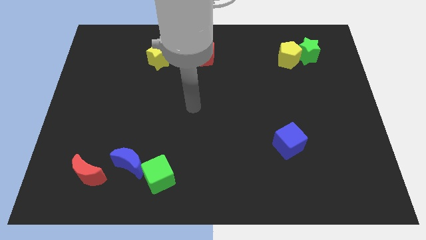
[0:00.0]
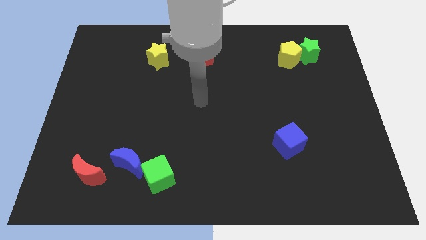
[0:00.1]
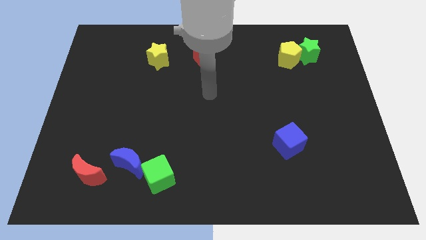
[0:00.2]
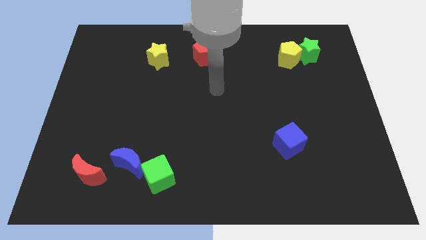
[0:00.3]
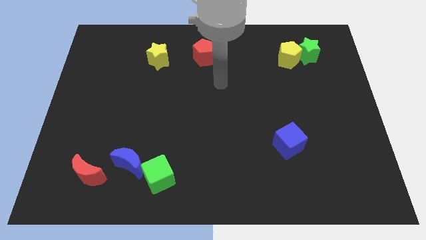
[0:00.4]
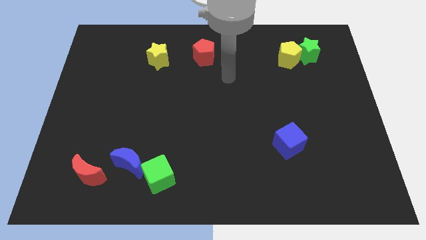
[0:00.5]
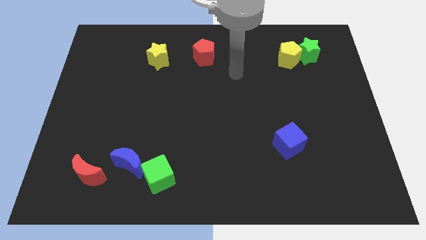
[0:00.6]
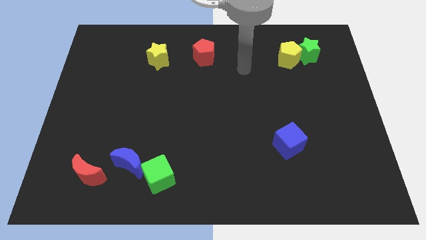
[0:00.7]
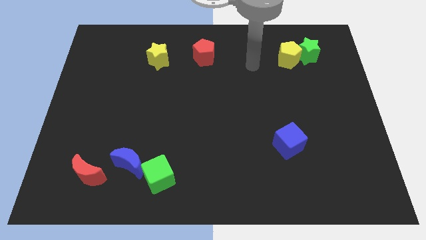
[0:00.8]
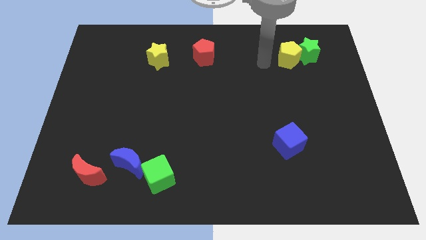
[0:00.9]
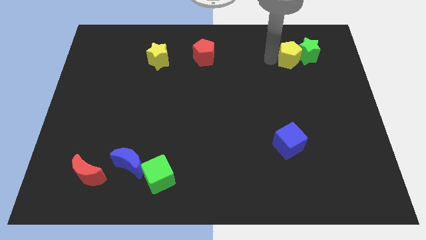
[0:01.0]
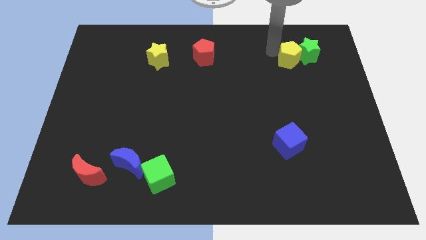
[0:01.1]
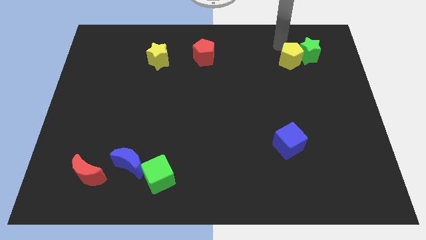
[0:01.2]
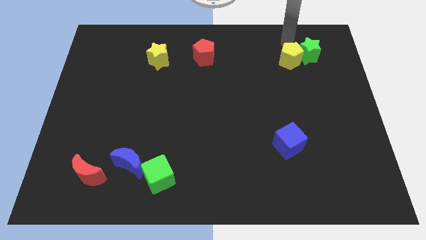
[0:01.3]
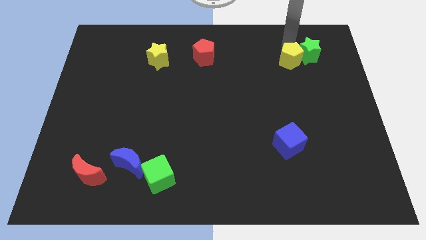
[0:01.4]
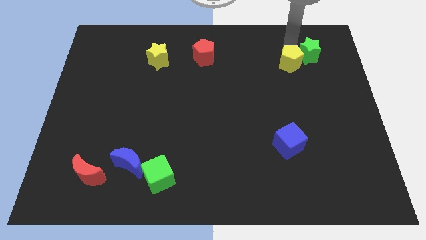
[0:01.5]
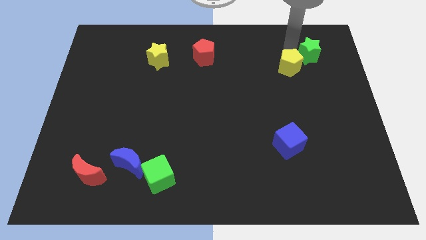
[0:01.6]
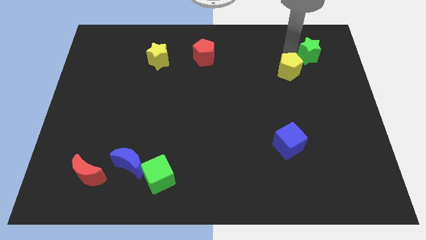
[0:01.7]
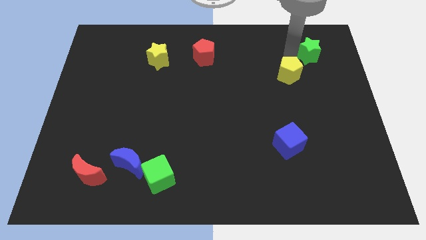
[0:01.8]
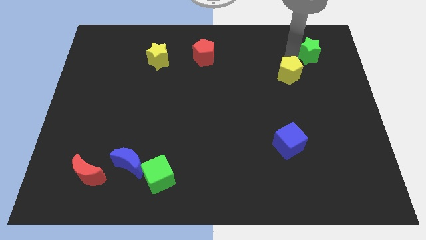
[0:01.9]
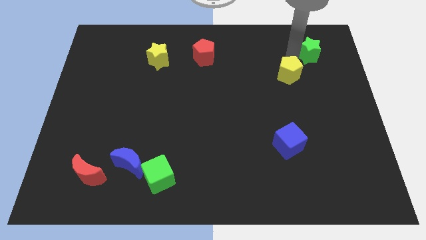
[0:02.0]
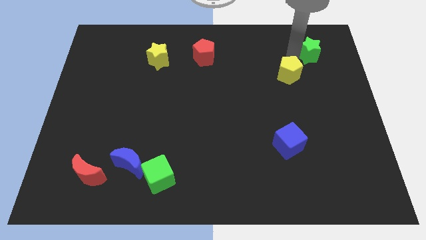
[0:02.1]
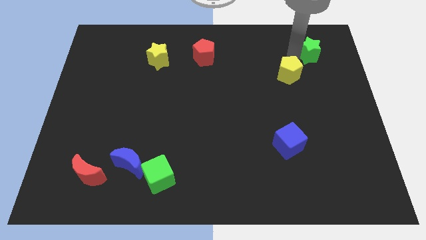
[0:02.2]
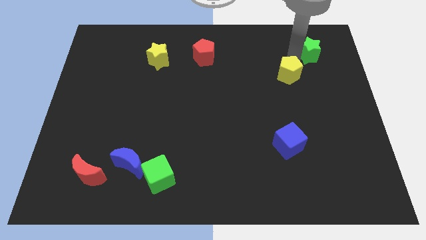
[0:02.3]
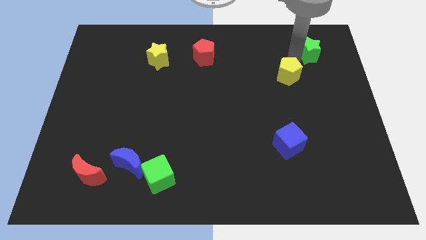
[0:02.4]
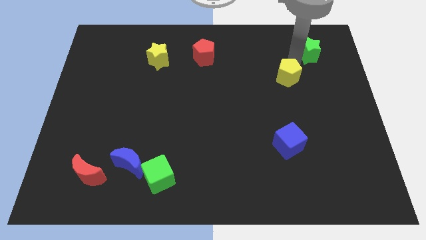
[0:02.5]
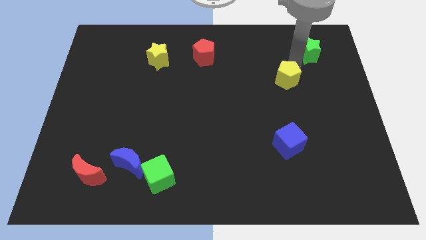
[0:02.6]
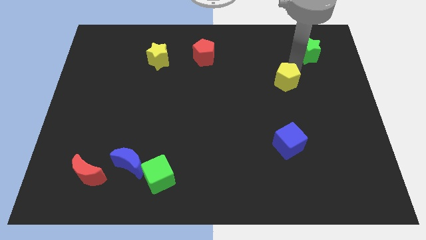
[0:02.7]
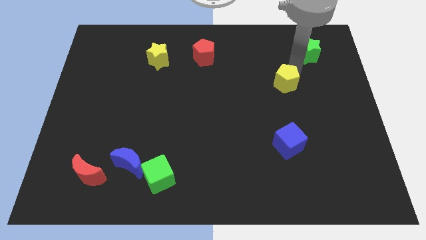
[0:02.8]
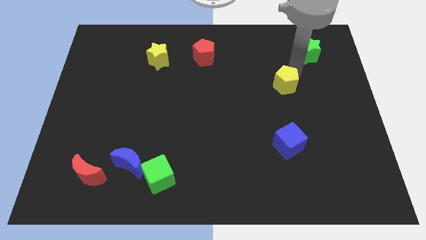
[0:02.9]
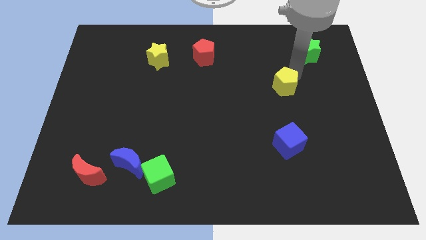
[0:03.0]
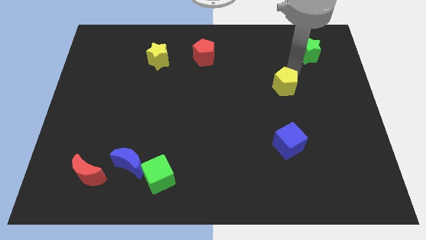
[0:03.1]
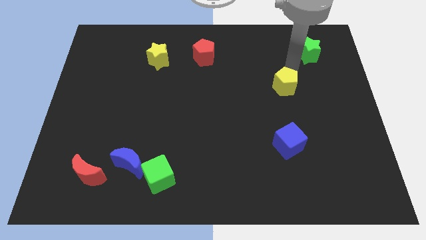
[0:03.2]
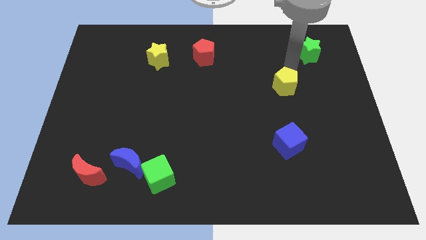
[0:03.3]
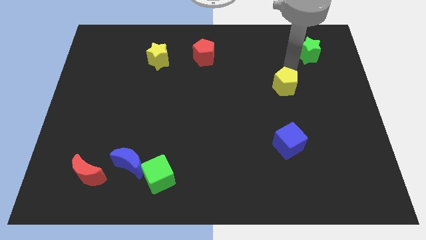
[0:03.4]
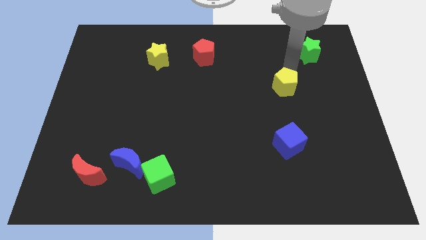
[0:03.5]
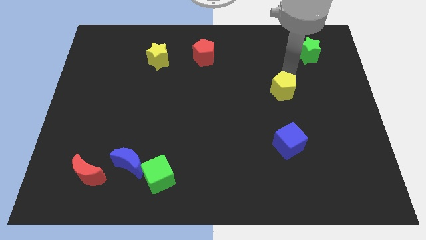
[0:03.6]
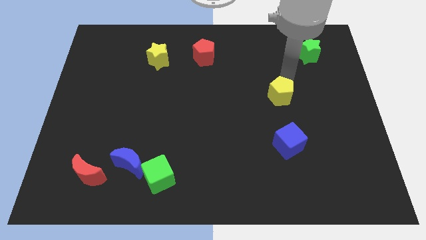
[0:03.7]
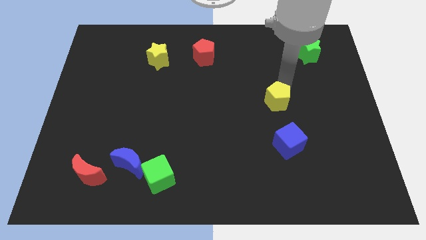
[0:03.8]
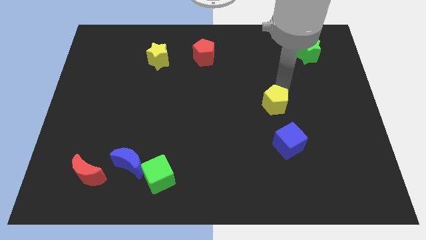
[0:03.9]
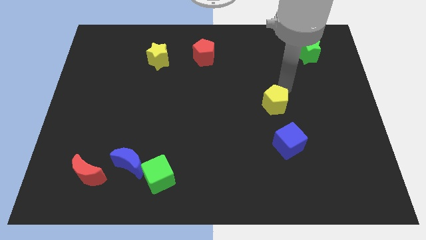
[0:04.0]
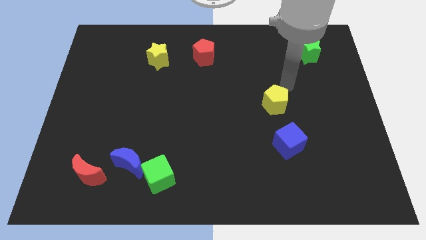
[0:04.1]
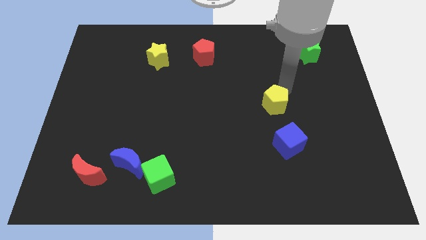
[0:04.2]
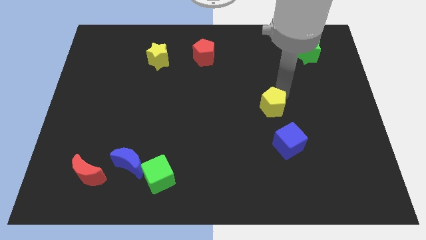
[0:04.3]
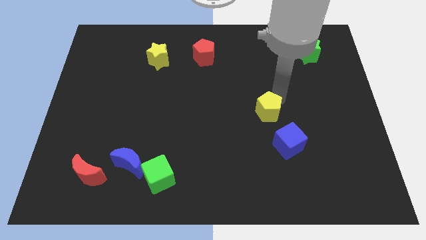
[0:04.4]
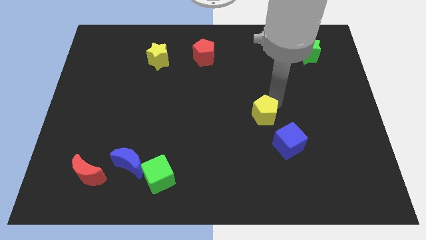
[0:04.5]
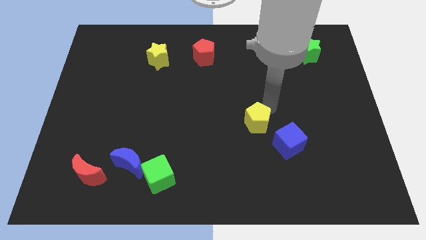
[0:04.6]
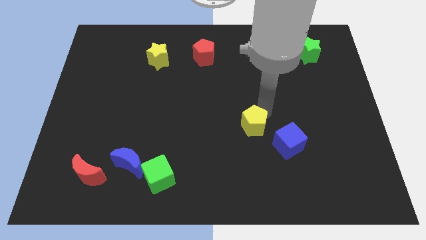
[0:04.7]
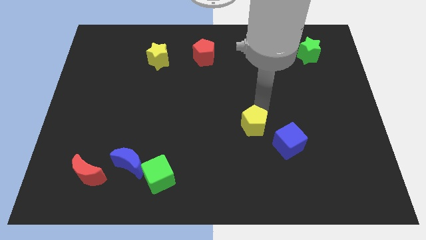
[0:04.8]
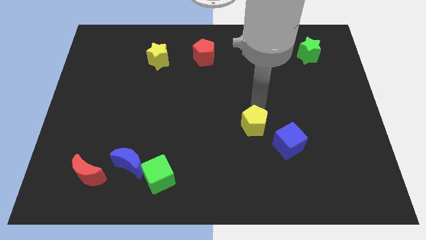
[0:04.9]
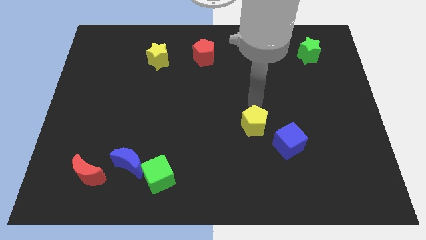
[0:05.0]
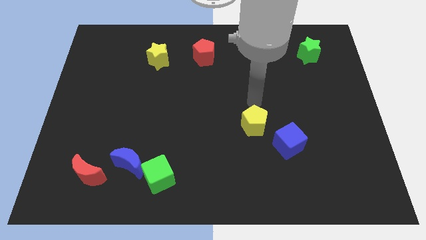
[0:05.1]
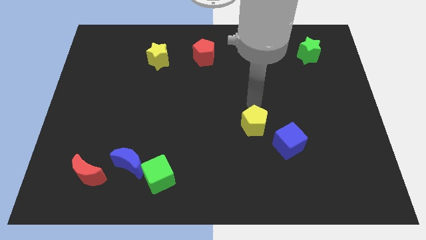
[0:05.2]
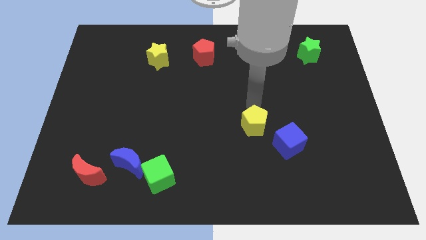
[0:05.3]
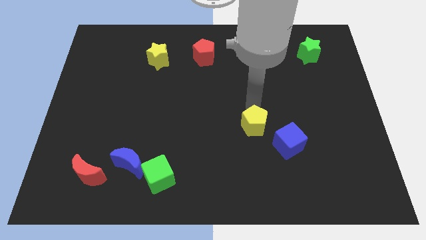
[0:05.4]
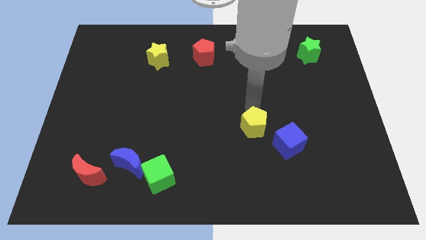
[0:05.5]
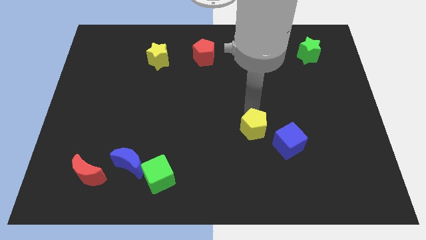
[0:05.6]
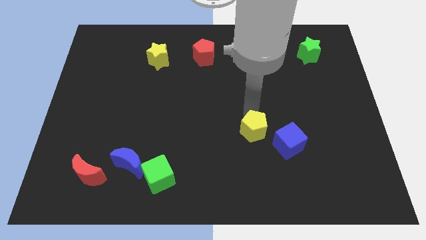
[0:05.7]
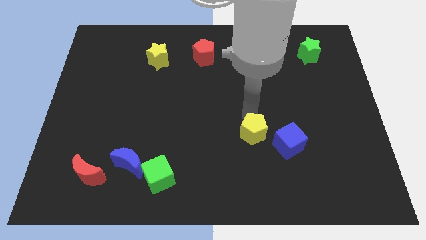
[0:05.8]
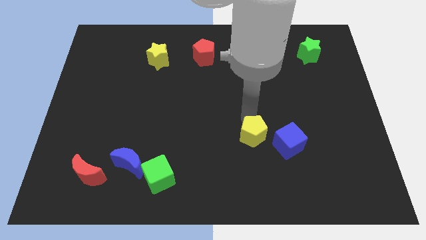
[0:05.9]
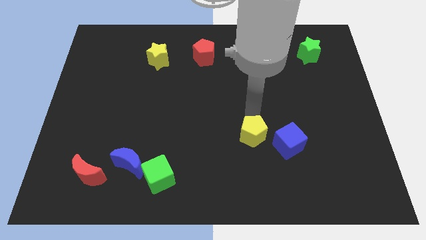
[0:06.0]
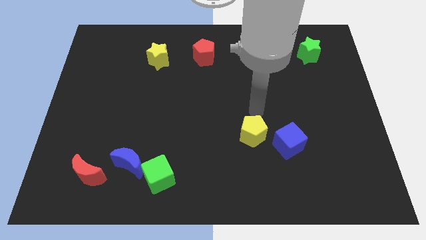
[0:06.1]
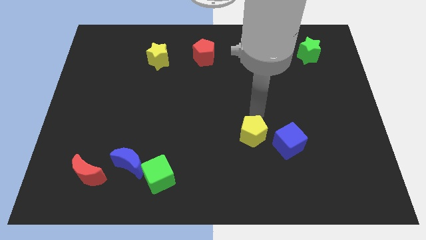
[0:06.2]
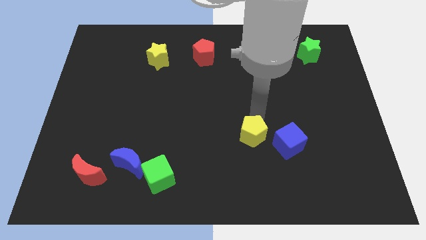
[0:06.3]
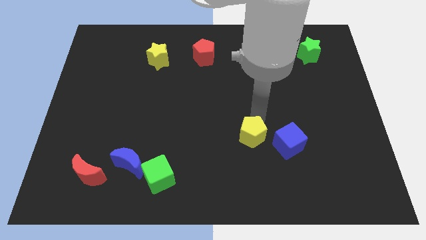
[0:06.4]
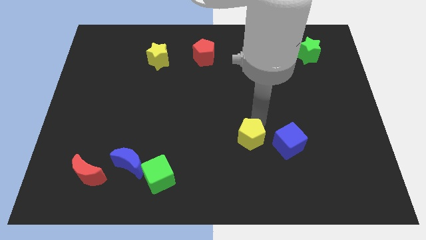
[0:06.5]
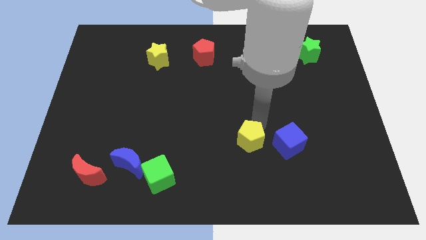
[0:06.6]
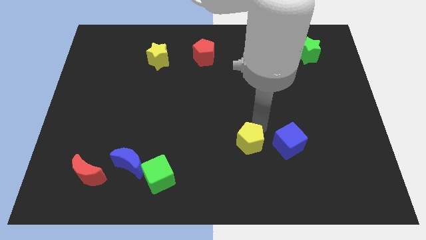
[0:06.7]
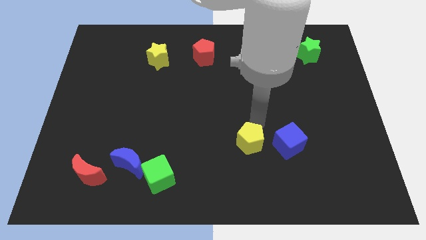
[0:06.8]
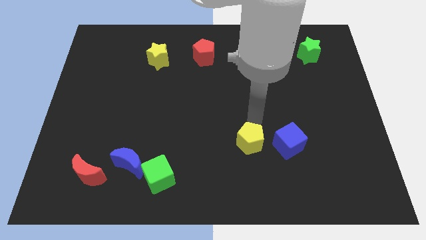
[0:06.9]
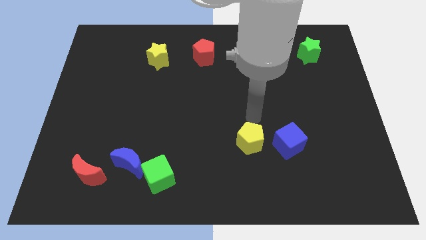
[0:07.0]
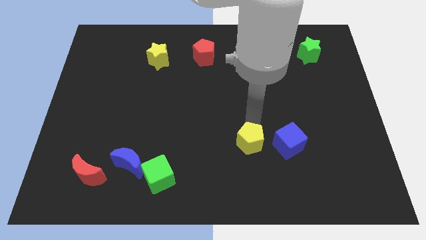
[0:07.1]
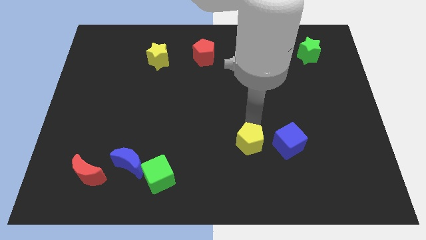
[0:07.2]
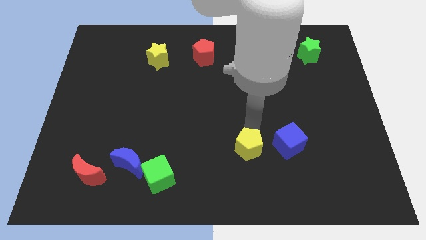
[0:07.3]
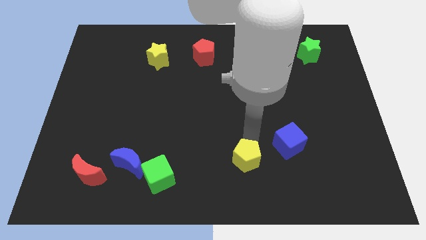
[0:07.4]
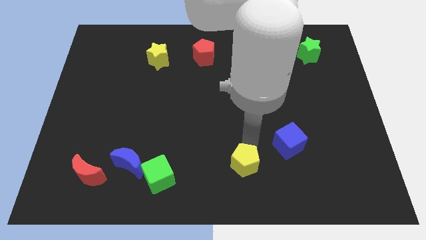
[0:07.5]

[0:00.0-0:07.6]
move the yellow pentagon to the bottom side
